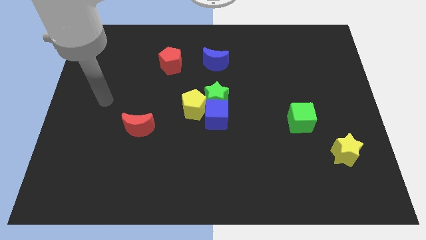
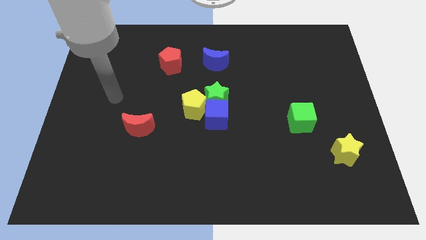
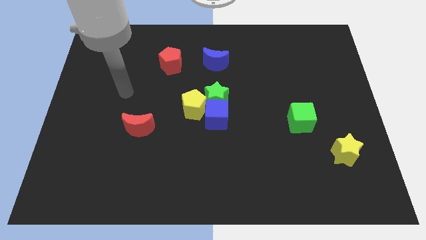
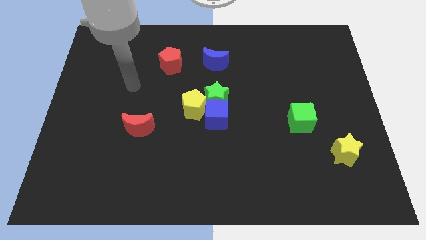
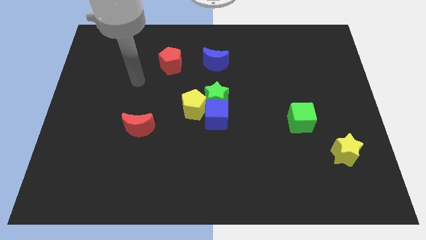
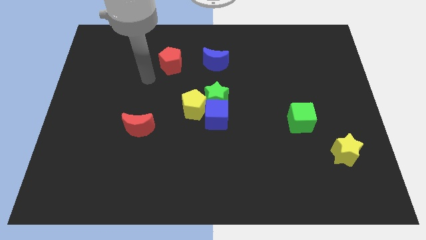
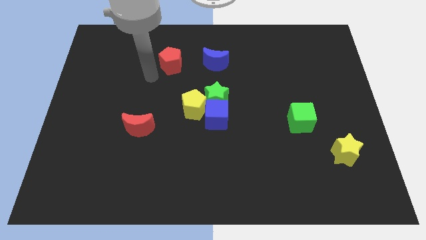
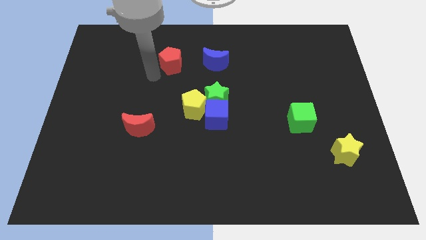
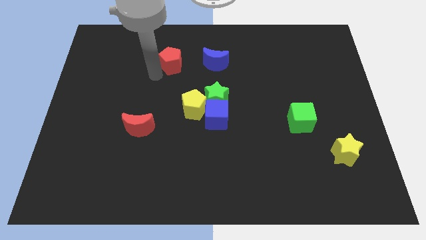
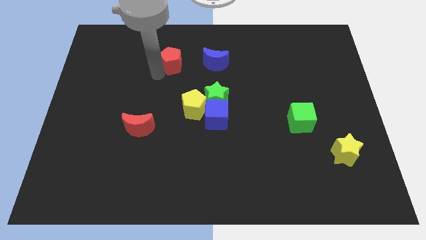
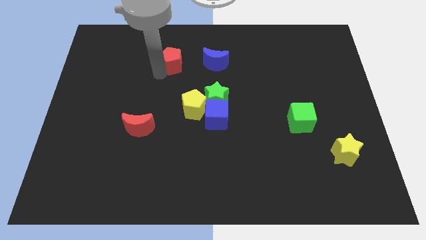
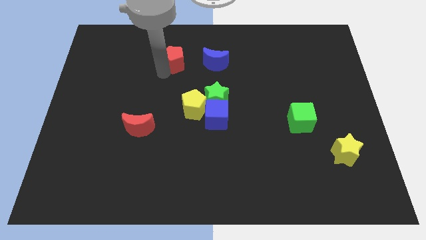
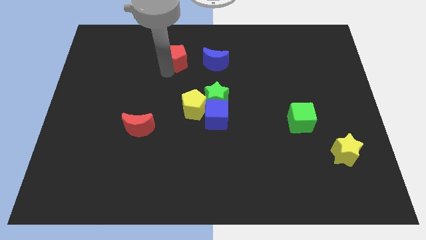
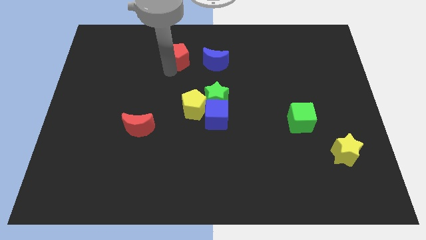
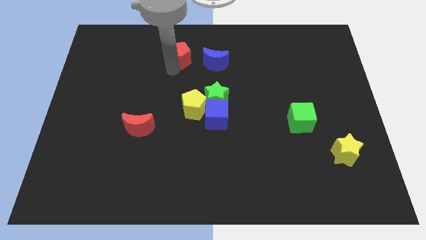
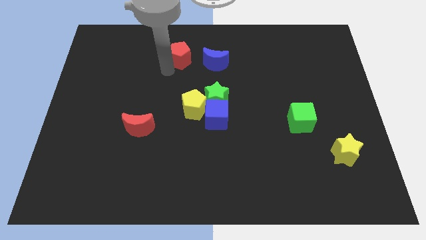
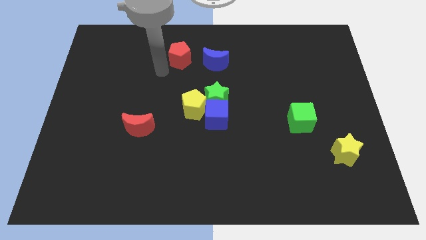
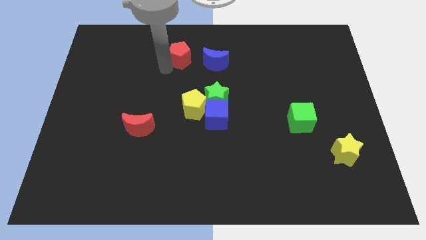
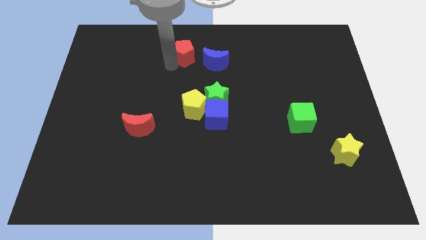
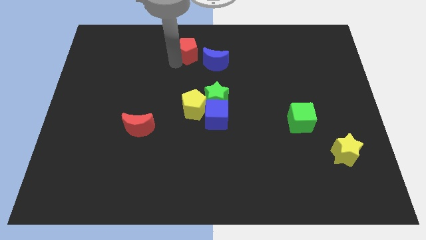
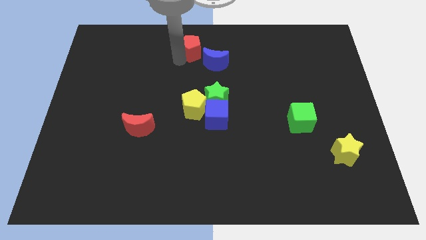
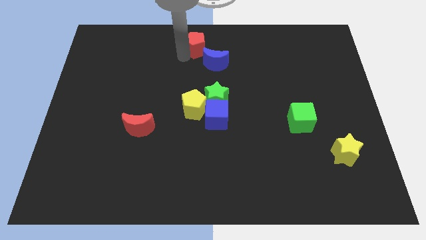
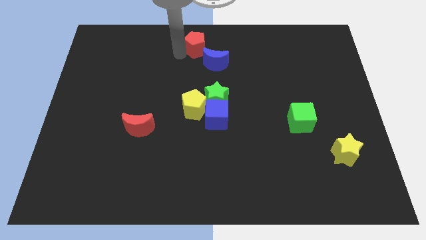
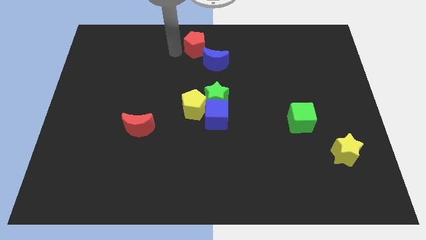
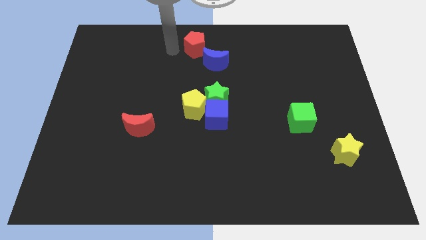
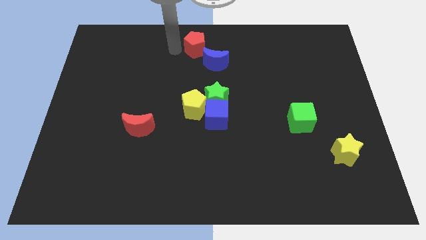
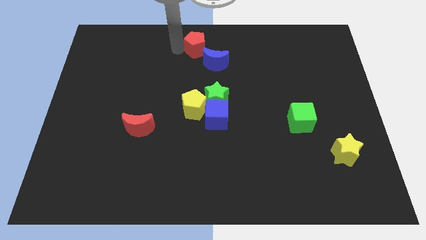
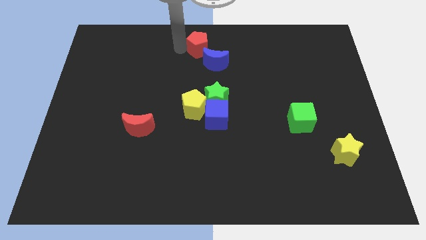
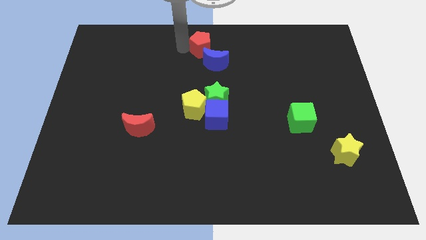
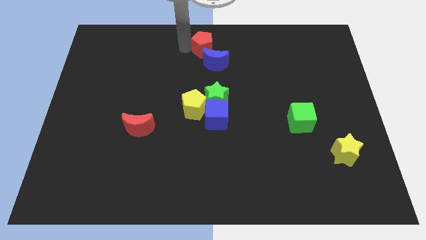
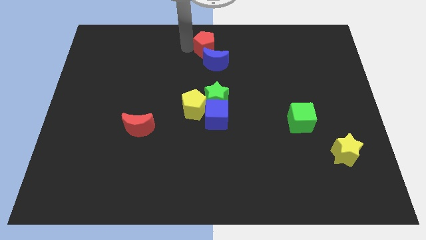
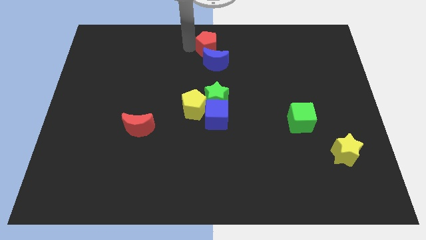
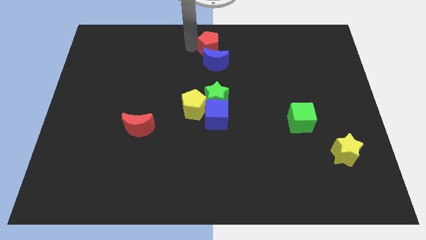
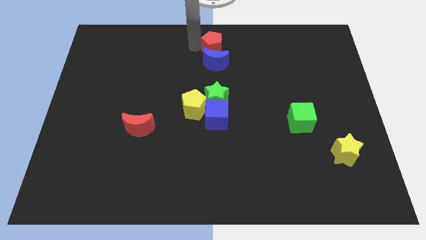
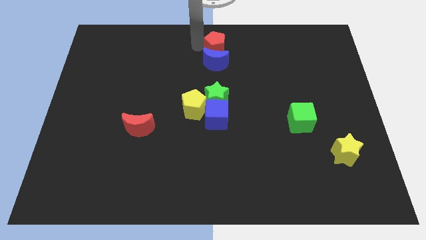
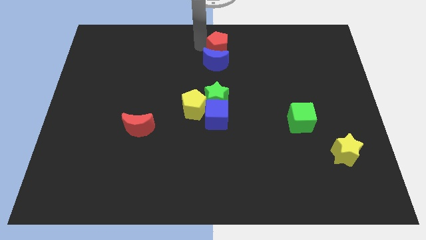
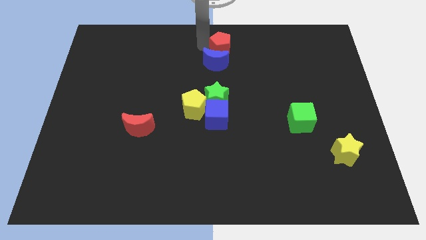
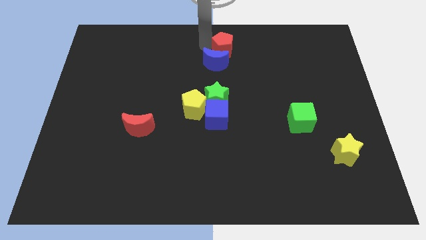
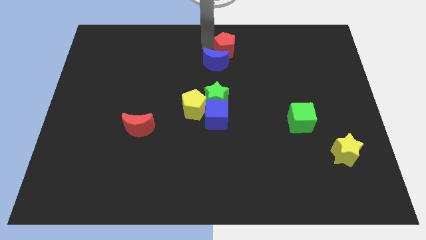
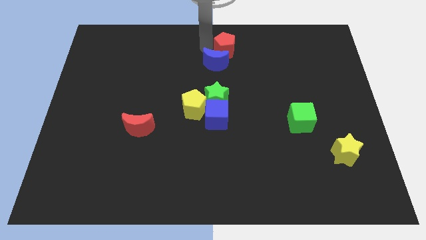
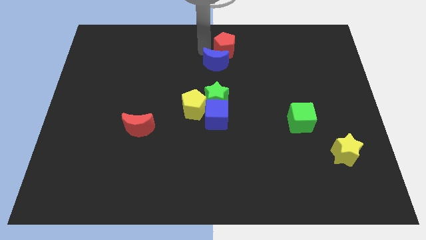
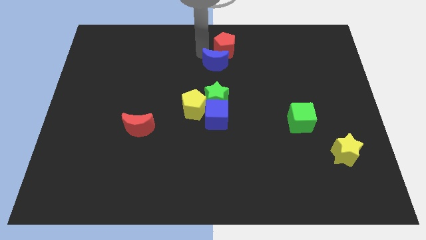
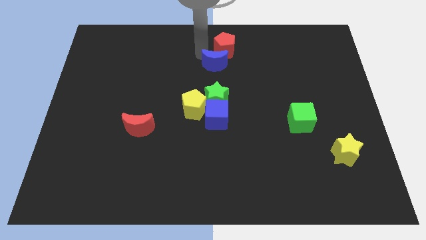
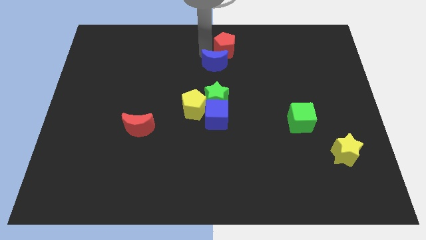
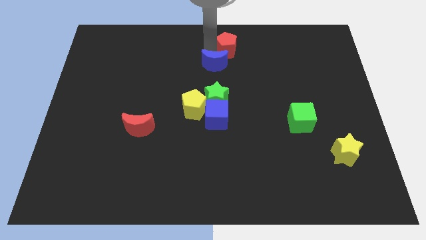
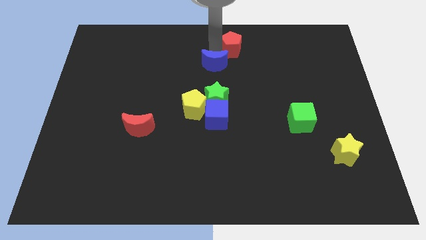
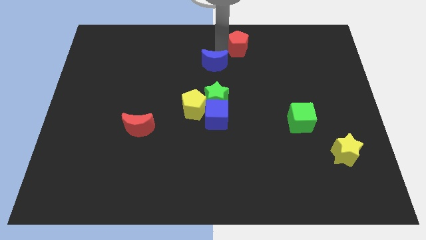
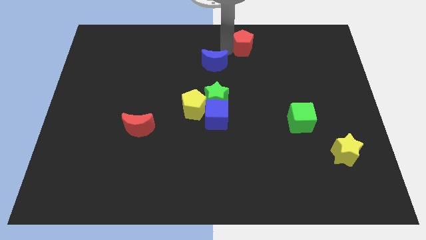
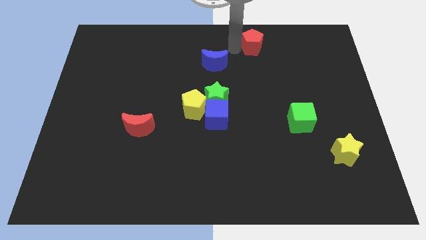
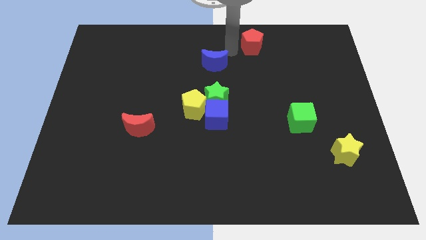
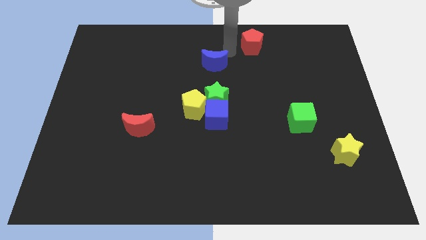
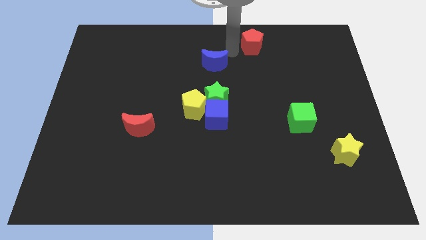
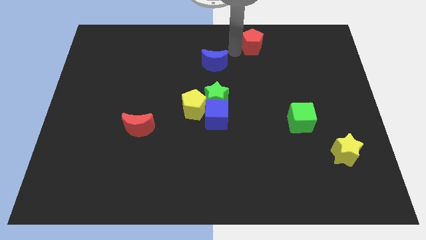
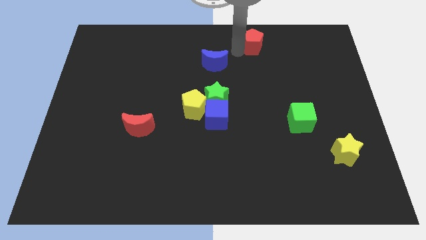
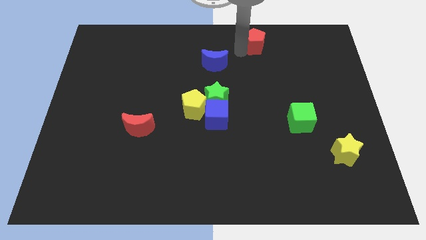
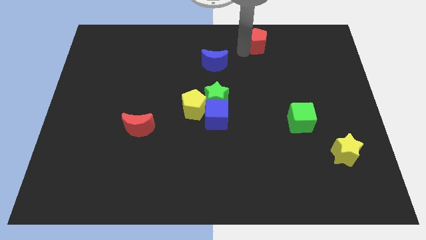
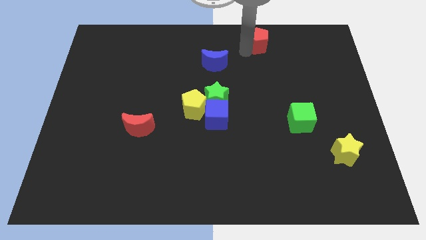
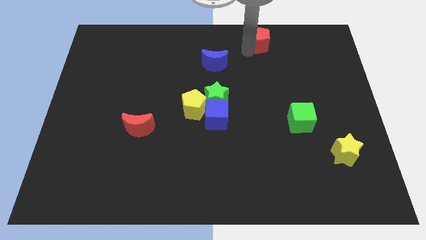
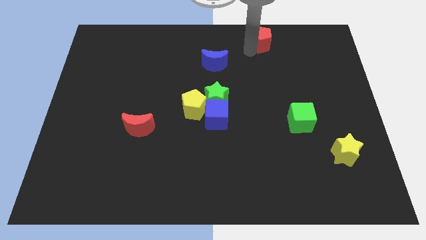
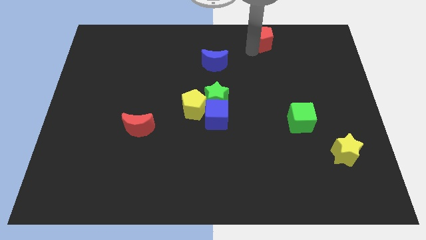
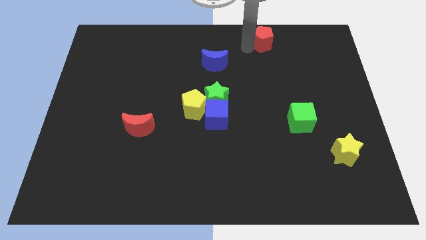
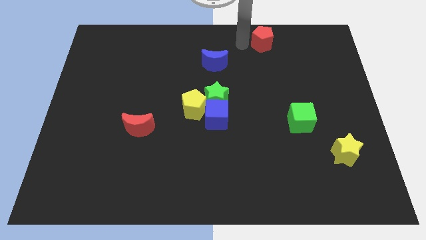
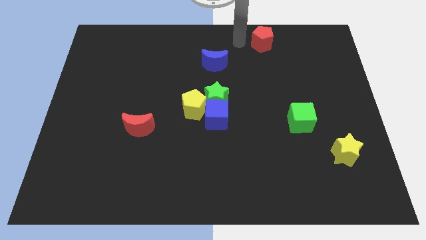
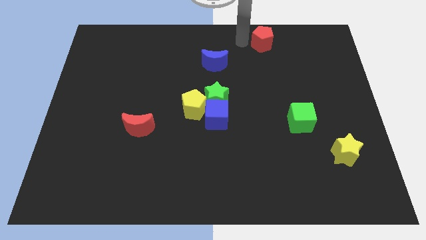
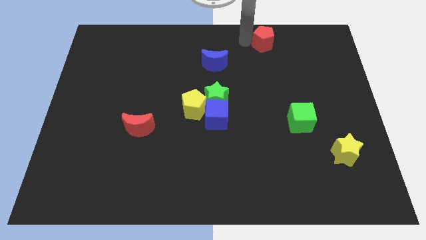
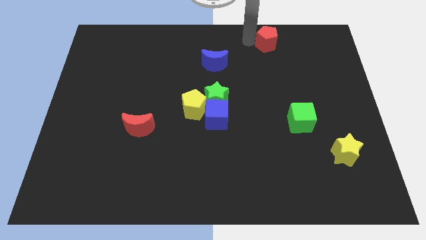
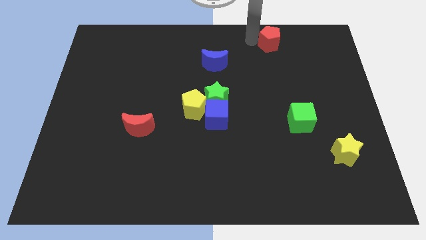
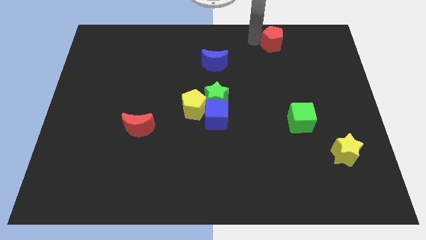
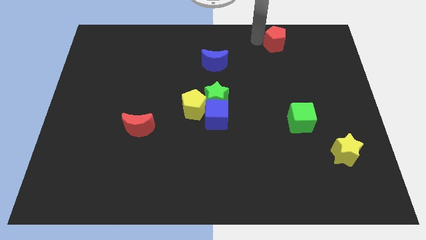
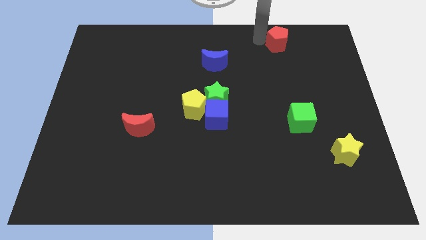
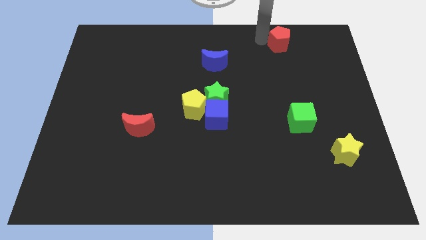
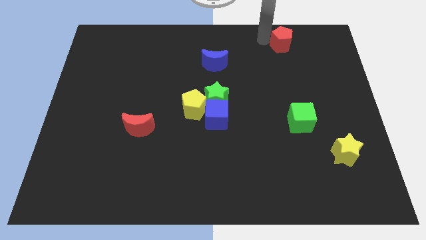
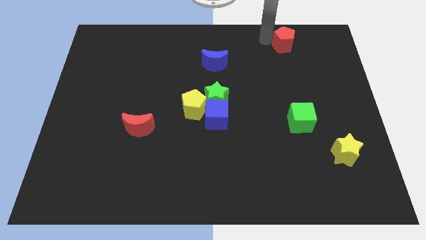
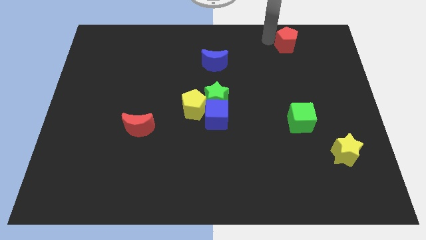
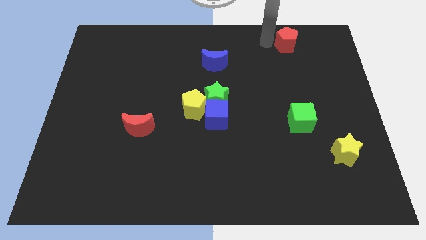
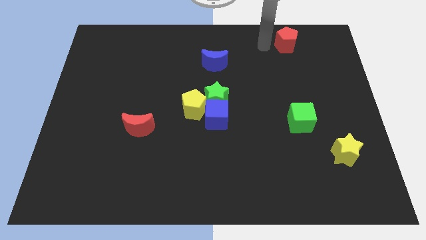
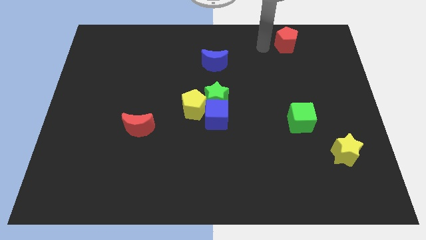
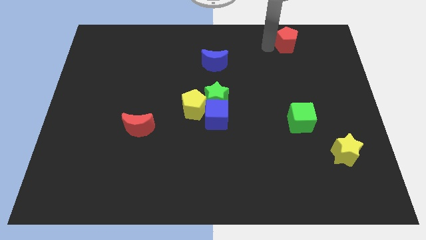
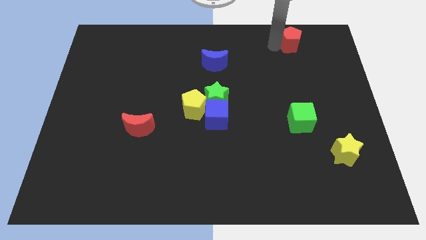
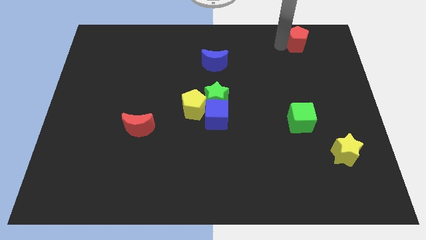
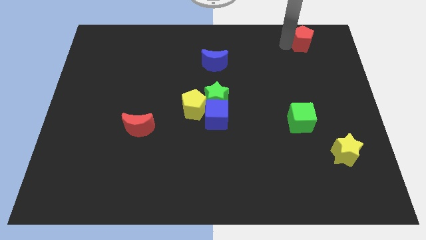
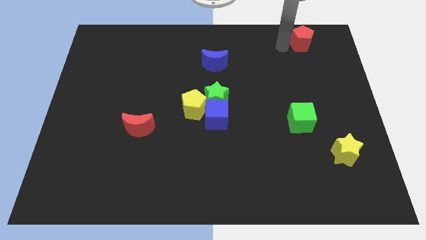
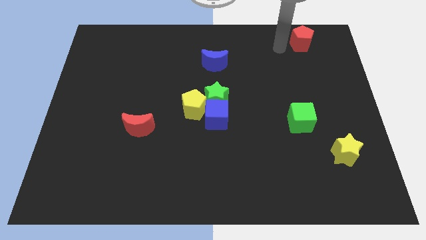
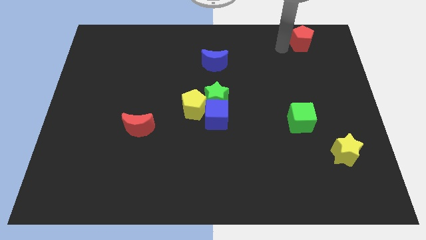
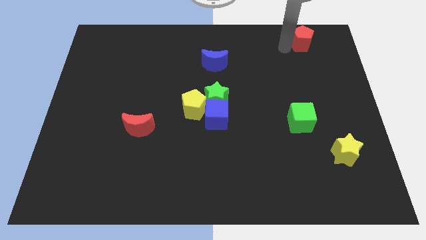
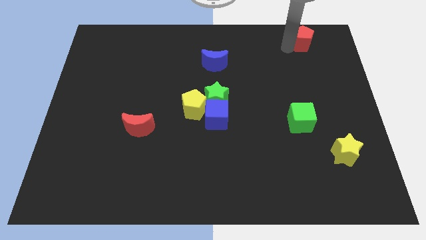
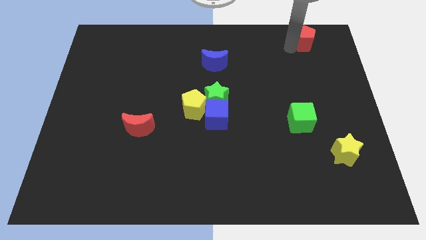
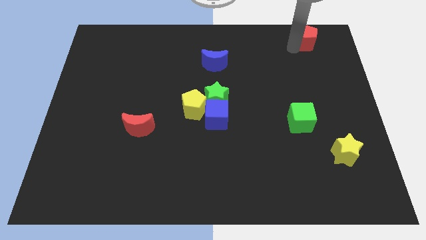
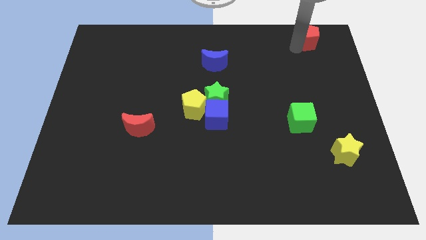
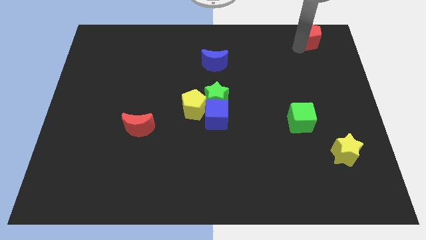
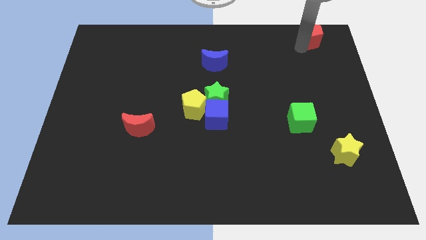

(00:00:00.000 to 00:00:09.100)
slide the red pentagon to the top right
